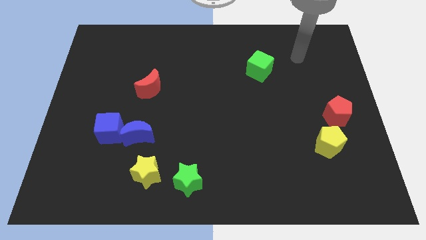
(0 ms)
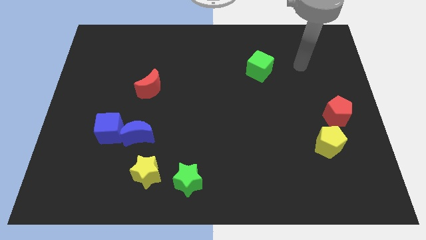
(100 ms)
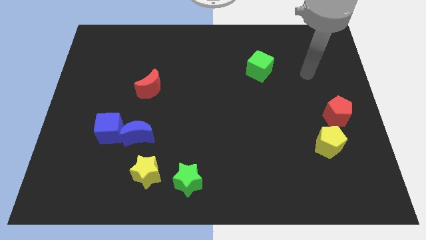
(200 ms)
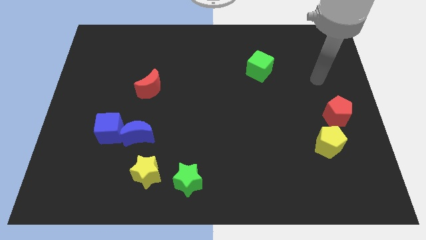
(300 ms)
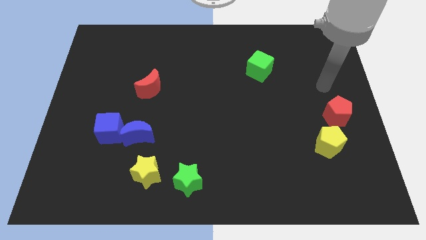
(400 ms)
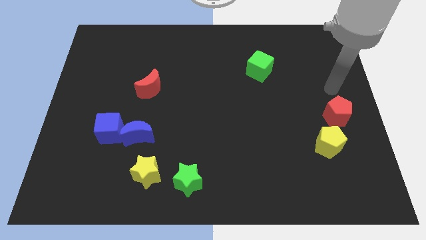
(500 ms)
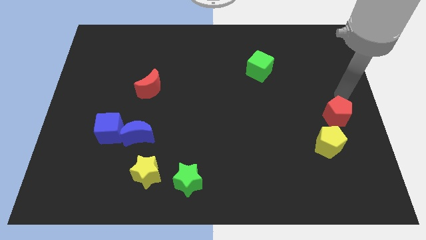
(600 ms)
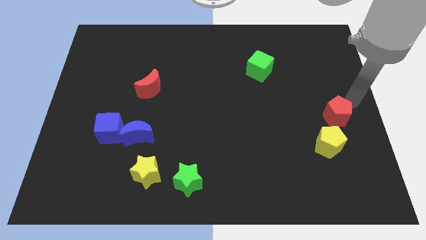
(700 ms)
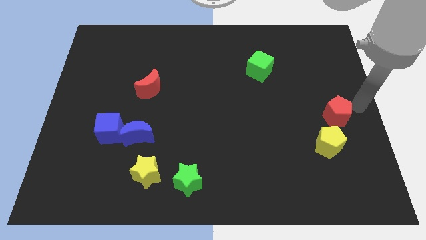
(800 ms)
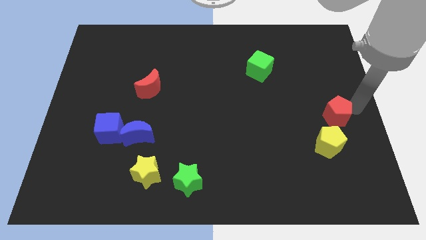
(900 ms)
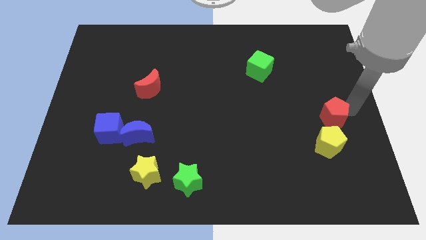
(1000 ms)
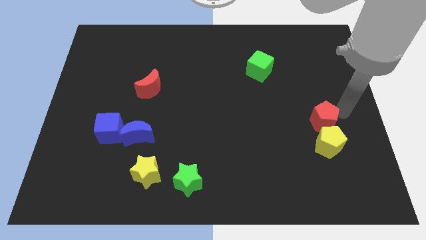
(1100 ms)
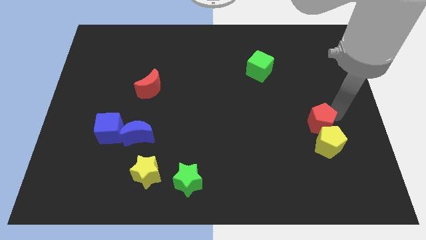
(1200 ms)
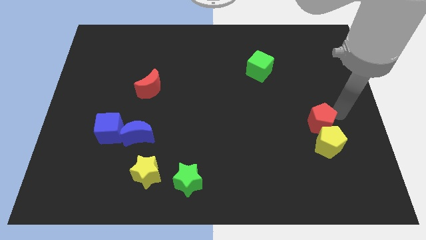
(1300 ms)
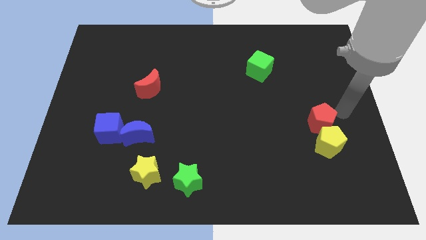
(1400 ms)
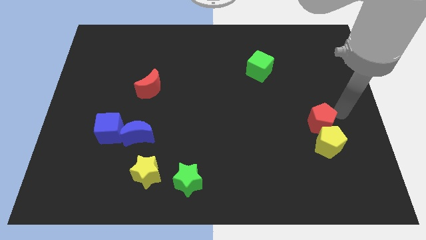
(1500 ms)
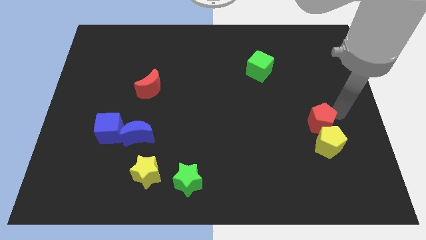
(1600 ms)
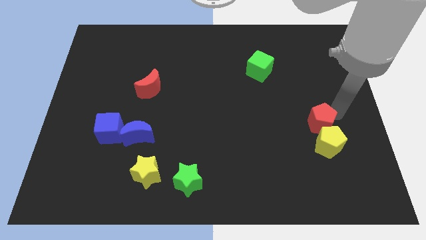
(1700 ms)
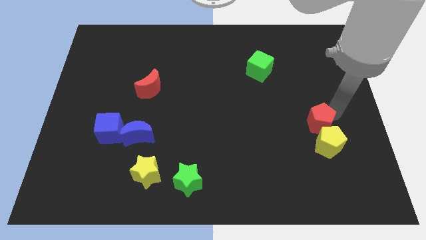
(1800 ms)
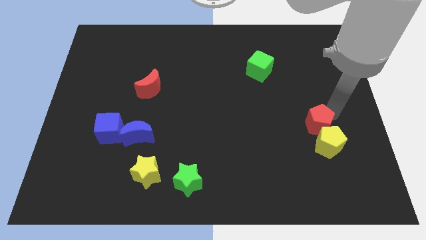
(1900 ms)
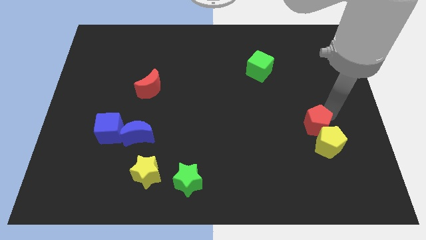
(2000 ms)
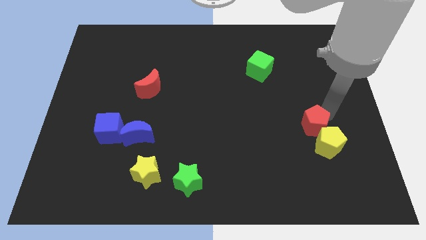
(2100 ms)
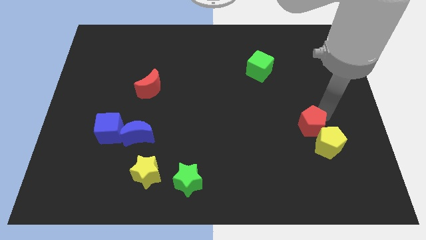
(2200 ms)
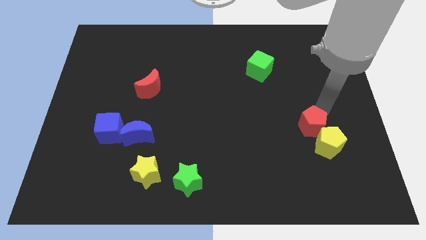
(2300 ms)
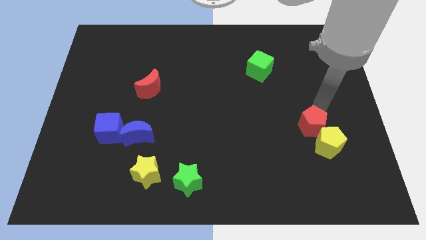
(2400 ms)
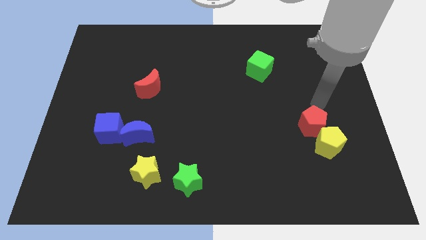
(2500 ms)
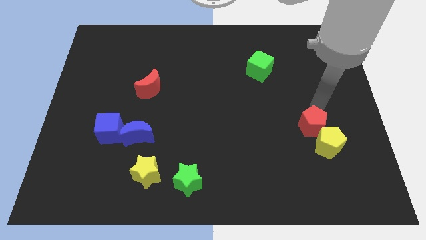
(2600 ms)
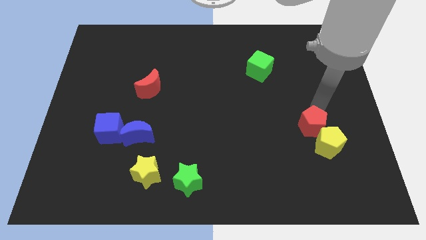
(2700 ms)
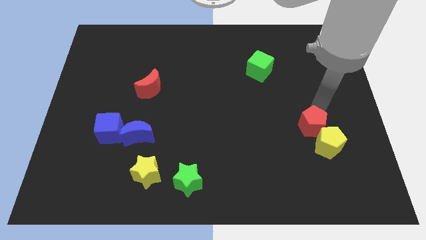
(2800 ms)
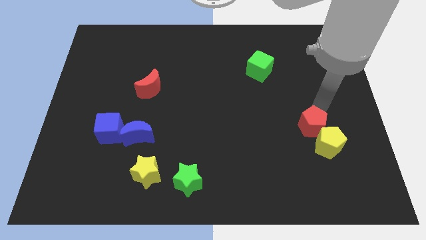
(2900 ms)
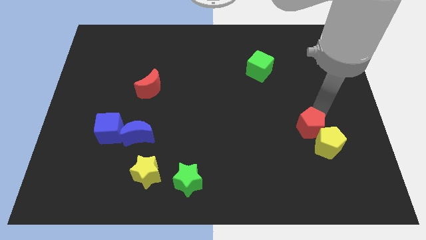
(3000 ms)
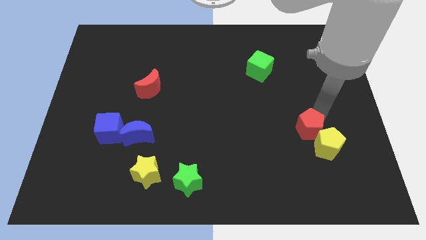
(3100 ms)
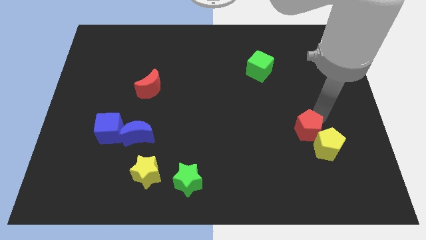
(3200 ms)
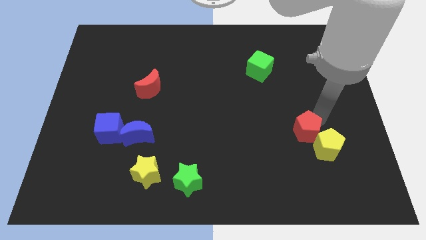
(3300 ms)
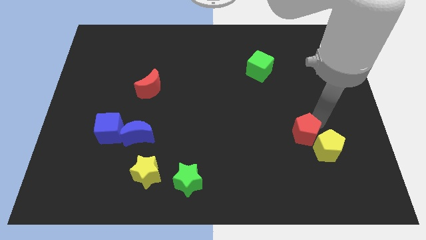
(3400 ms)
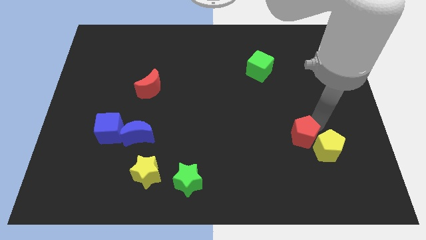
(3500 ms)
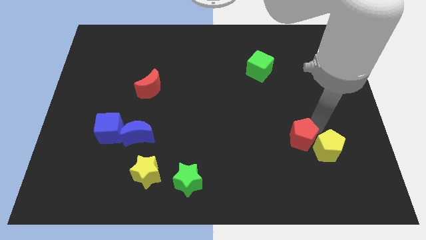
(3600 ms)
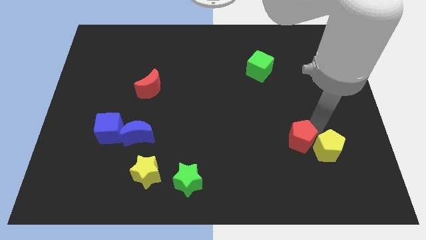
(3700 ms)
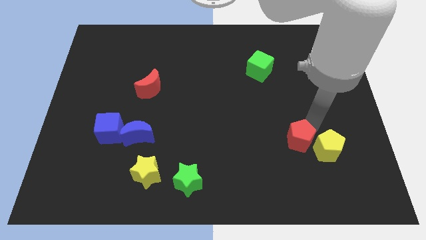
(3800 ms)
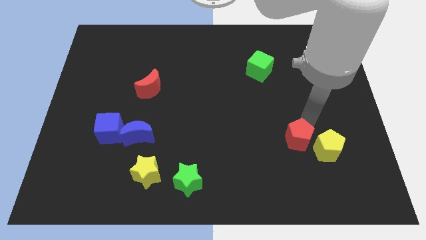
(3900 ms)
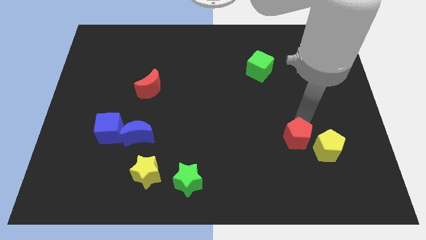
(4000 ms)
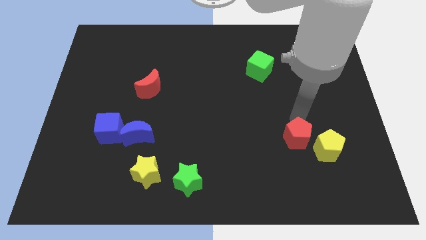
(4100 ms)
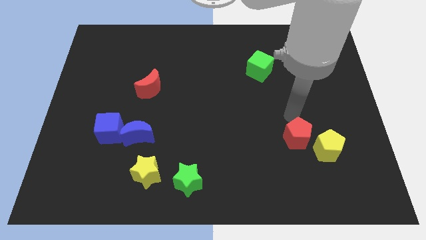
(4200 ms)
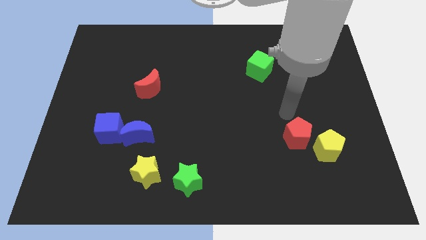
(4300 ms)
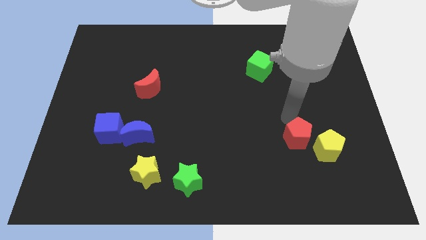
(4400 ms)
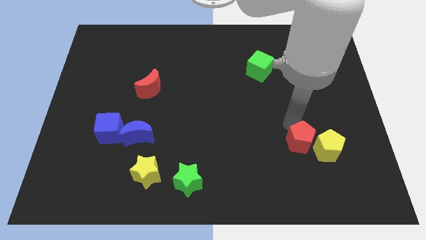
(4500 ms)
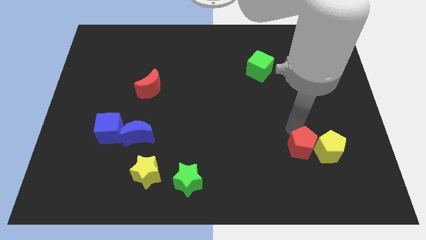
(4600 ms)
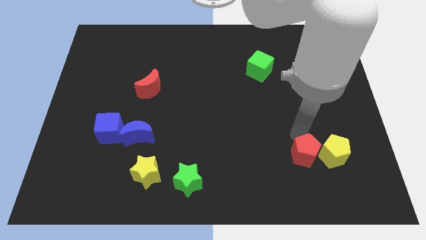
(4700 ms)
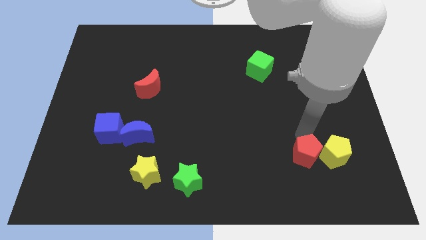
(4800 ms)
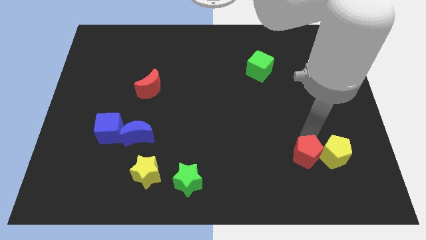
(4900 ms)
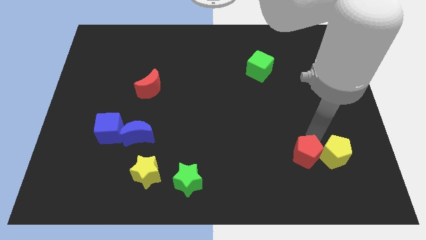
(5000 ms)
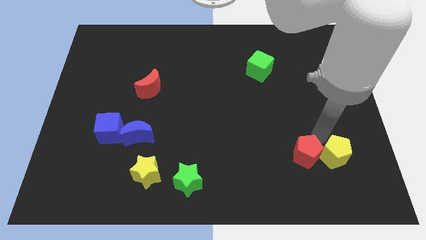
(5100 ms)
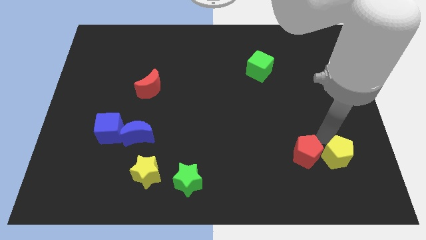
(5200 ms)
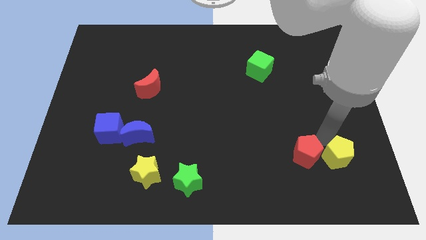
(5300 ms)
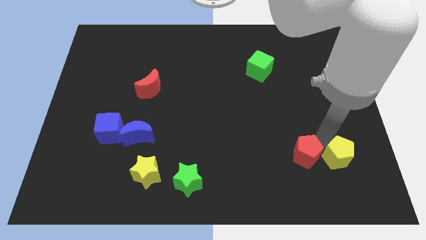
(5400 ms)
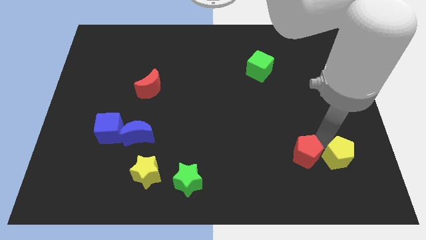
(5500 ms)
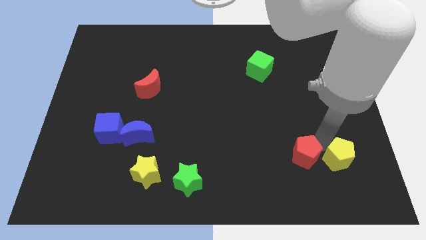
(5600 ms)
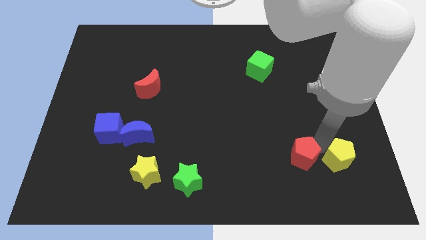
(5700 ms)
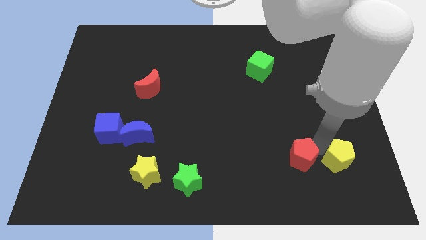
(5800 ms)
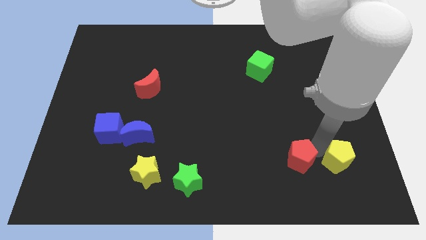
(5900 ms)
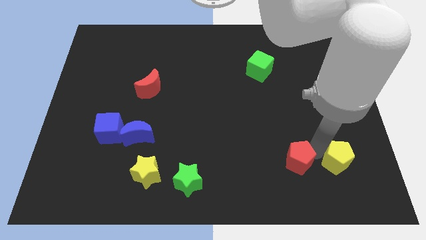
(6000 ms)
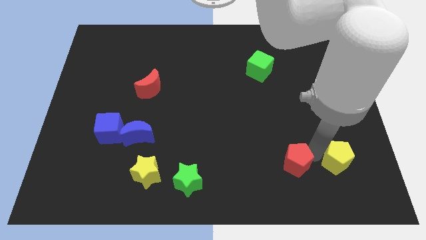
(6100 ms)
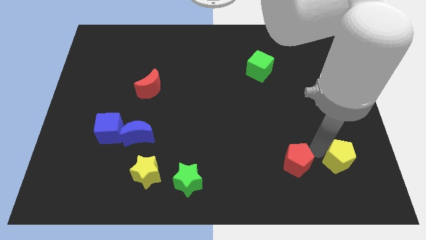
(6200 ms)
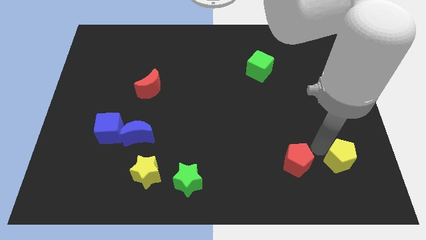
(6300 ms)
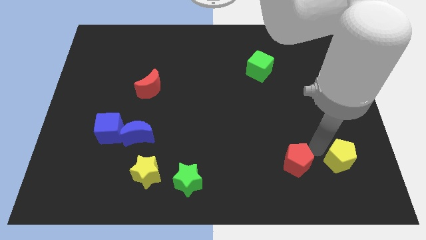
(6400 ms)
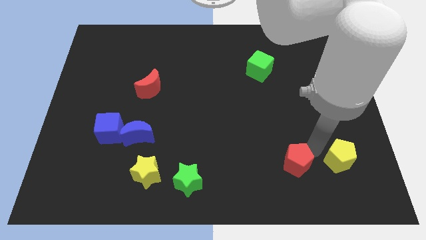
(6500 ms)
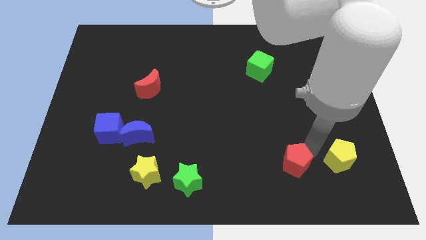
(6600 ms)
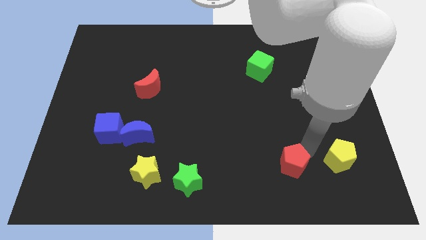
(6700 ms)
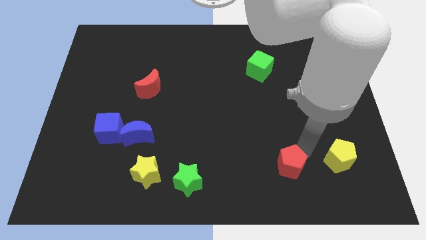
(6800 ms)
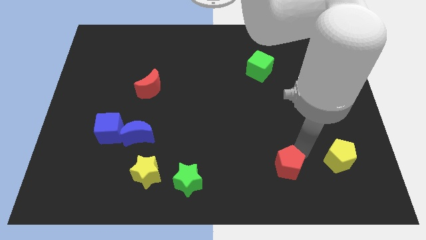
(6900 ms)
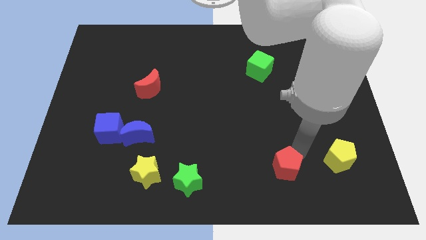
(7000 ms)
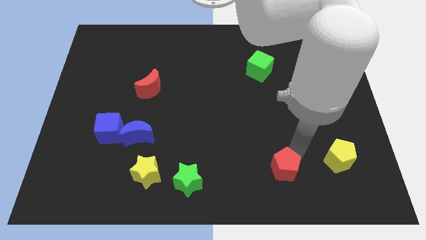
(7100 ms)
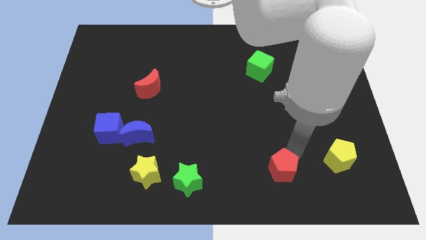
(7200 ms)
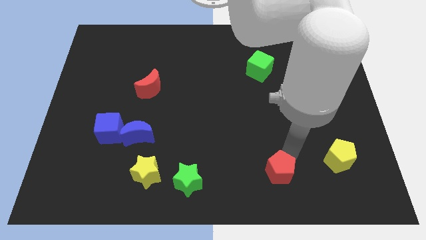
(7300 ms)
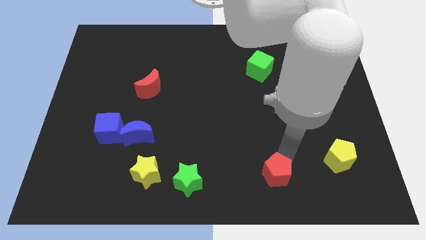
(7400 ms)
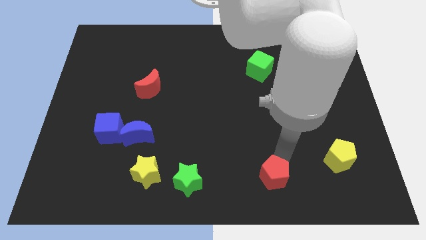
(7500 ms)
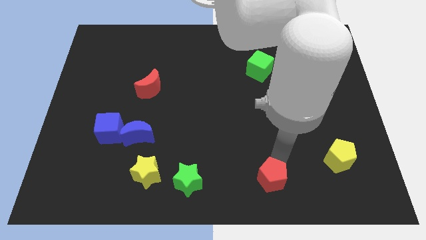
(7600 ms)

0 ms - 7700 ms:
put the red pentagon to the bottom side
